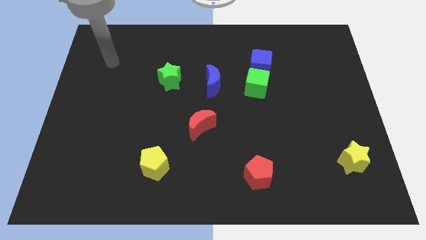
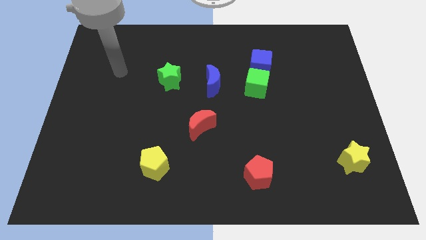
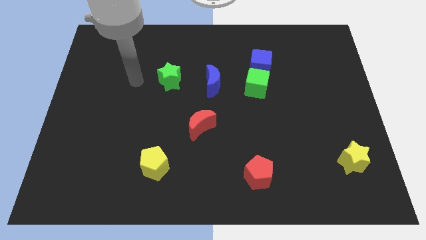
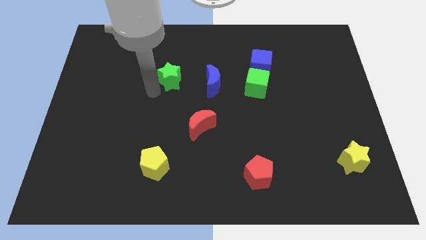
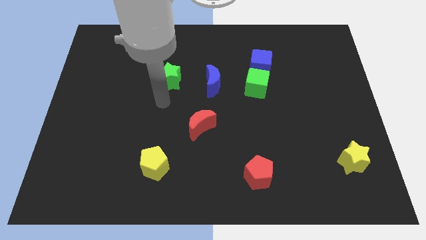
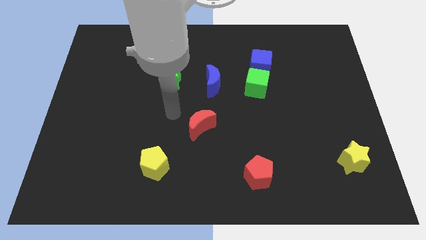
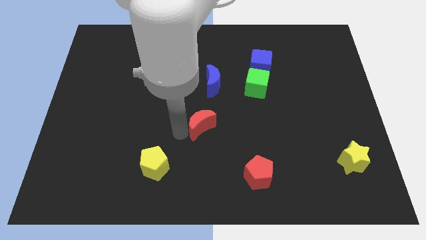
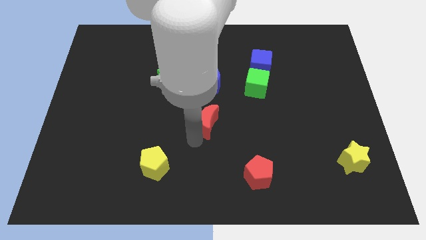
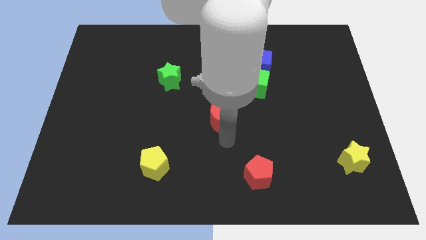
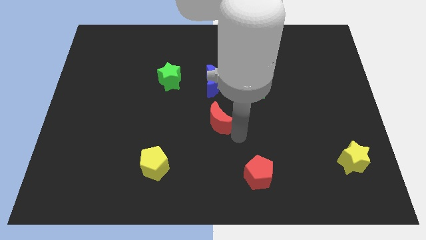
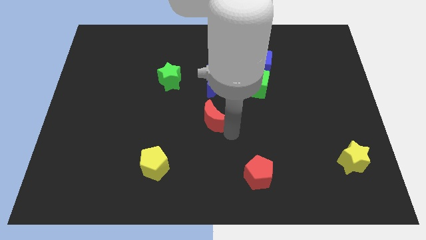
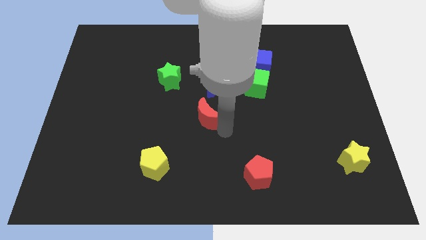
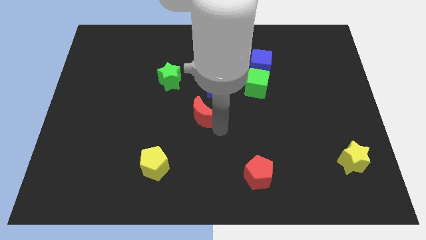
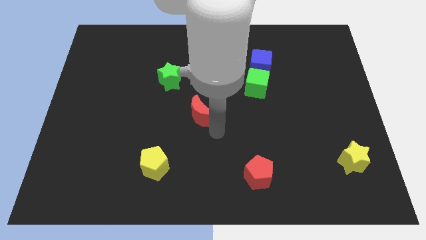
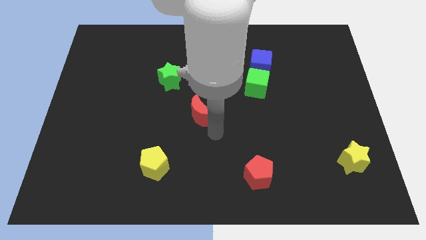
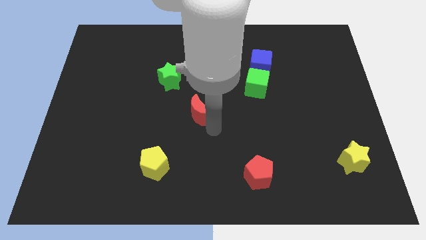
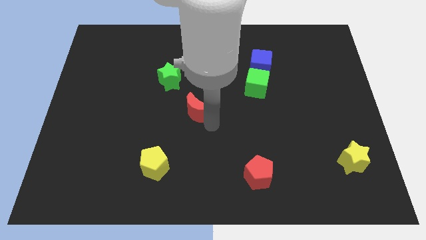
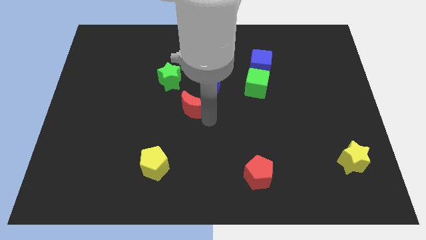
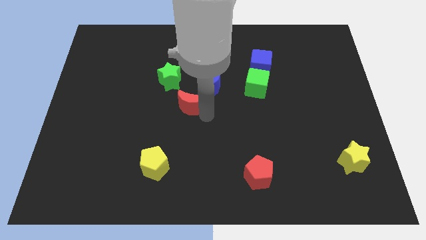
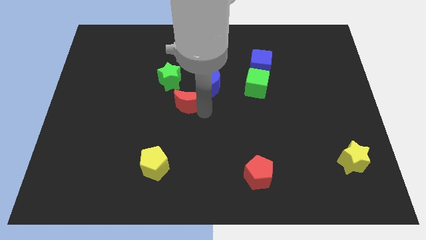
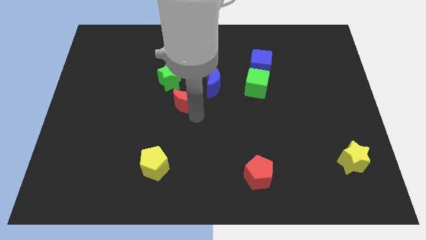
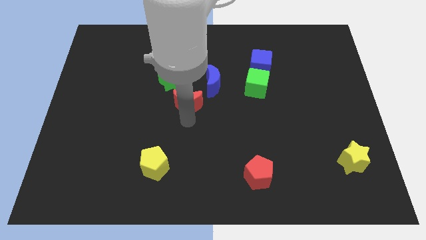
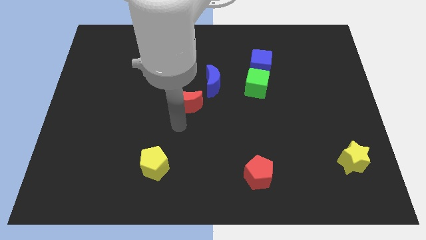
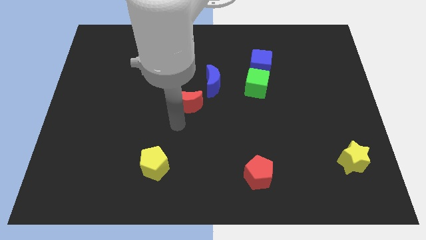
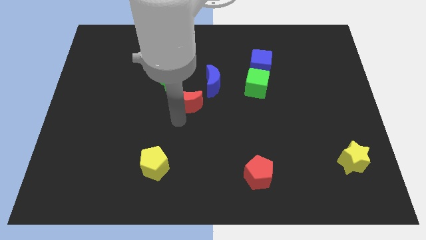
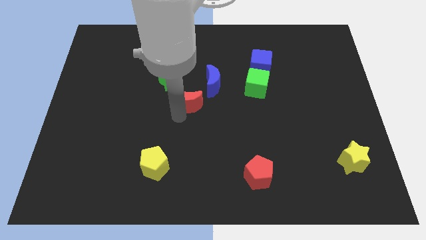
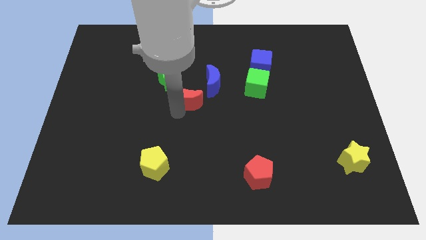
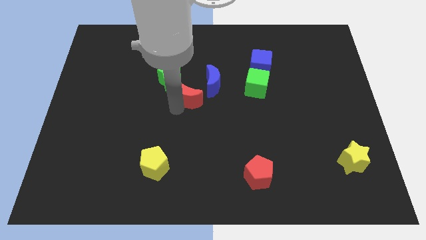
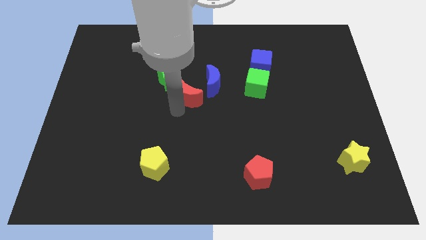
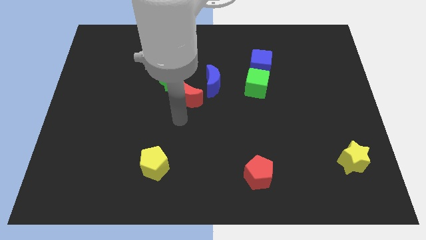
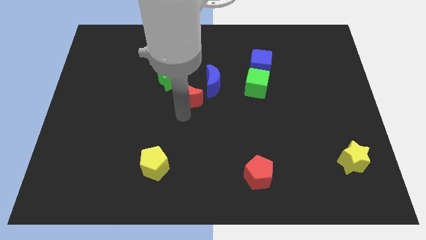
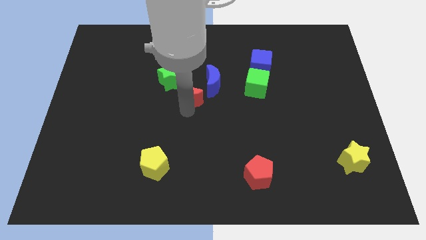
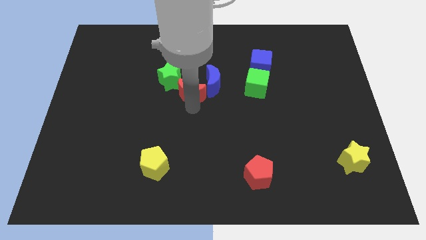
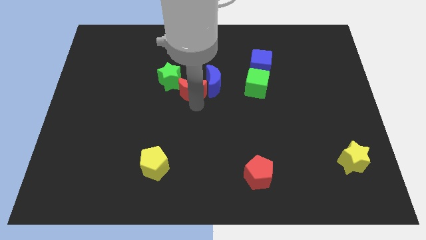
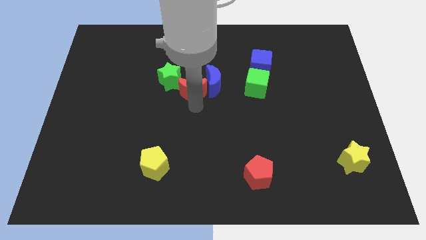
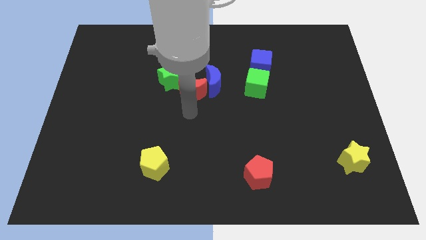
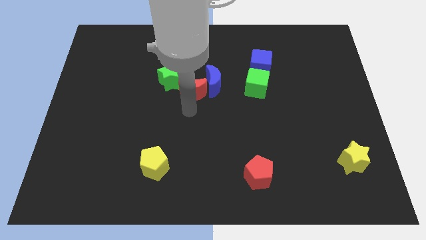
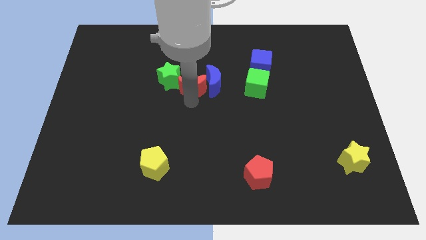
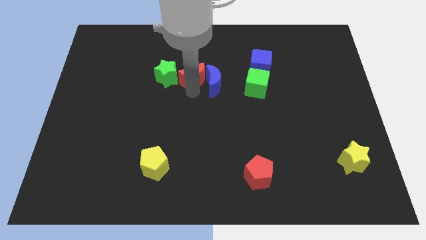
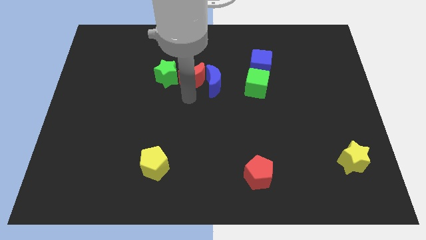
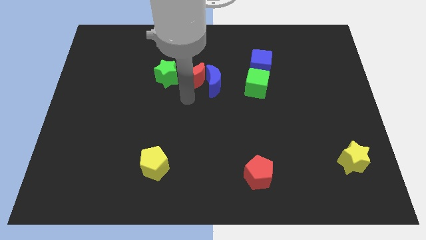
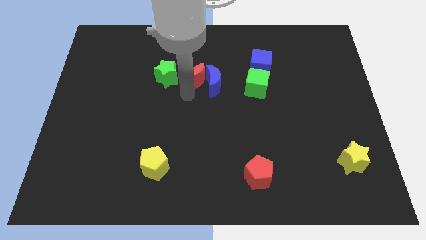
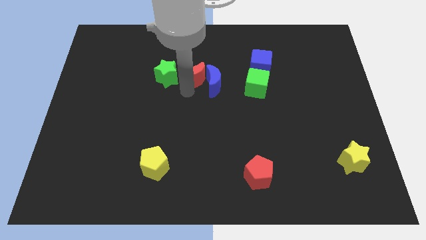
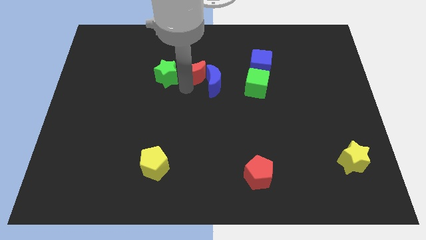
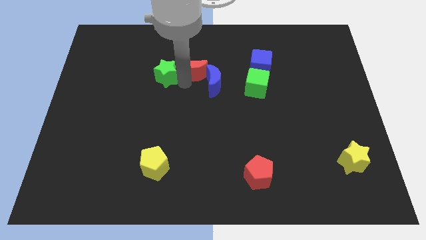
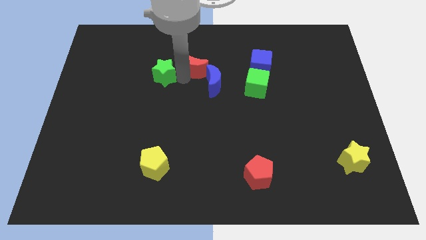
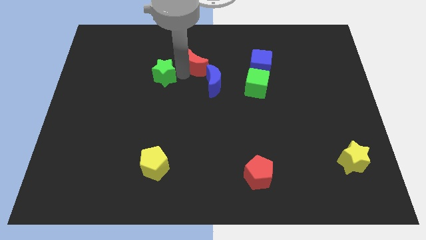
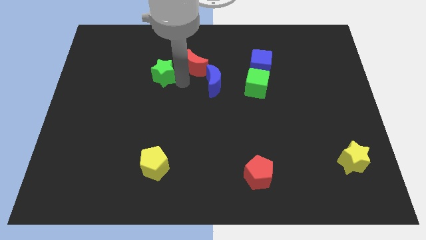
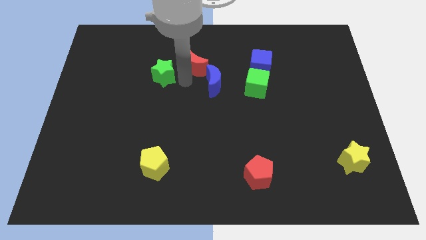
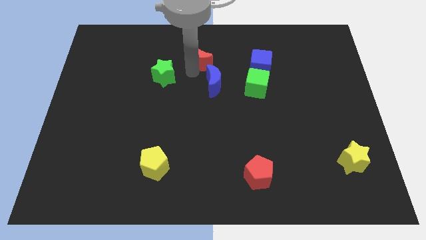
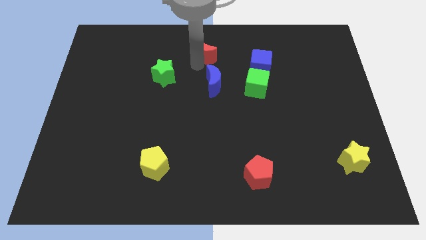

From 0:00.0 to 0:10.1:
slide the red moon to the top side

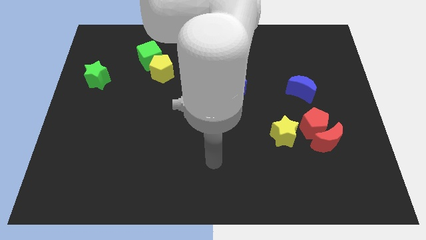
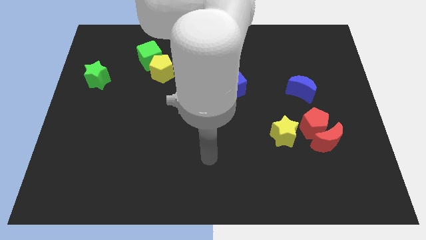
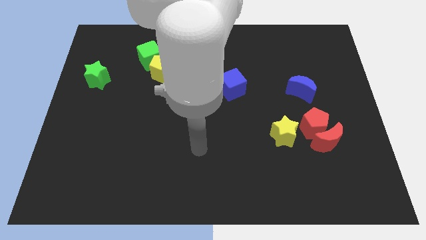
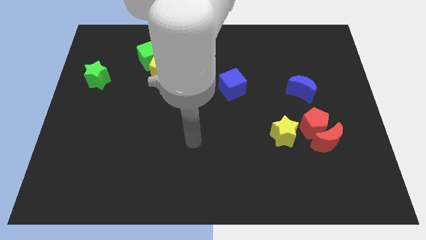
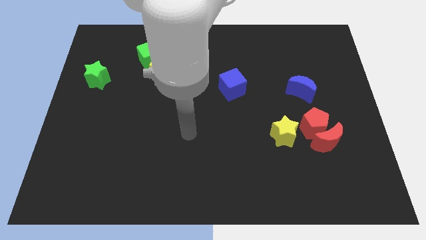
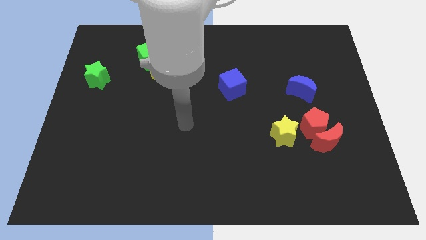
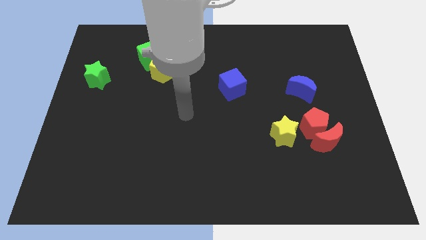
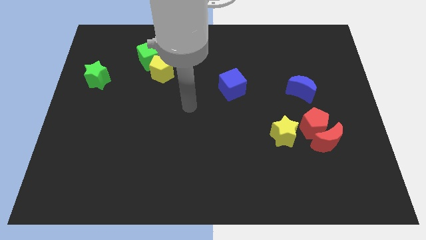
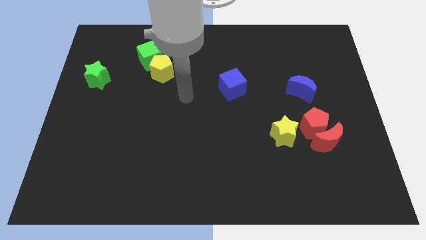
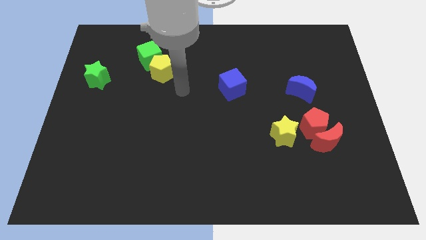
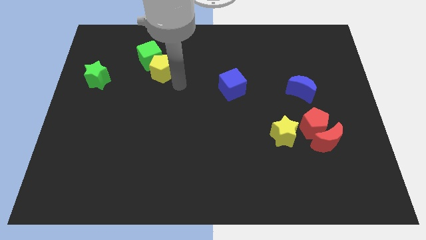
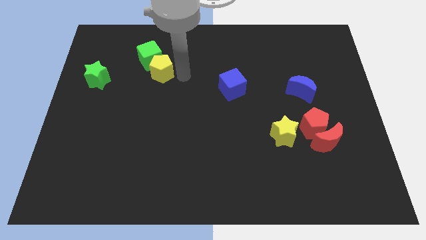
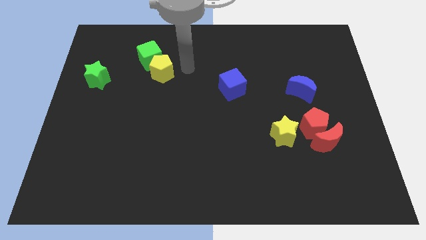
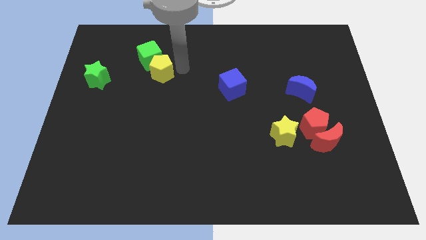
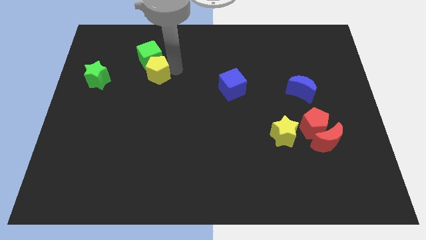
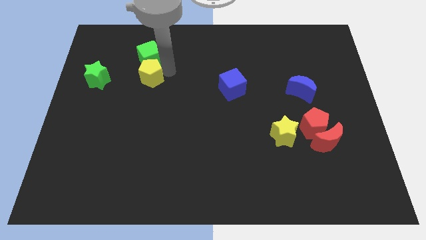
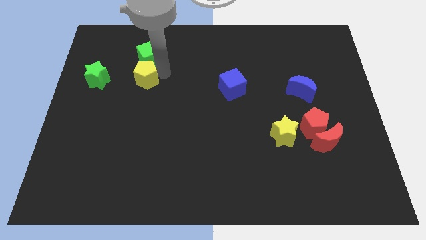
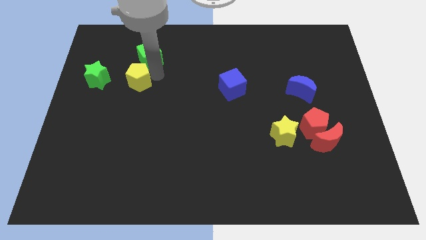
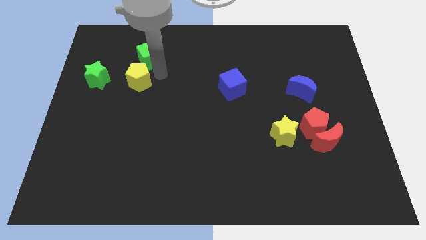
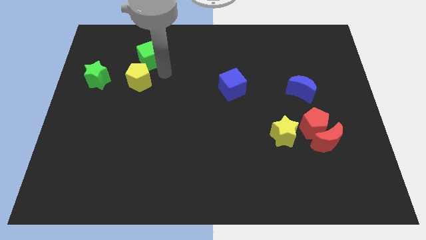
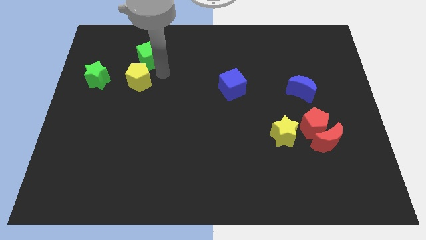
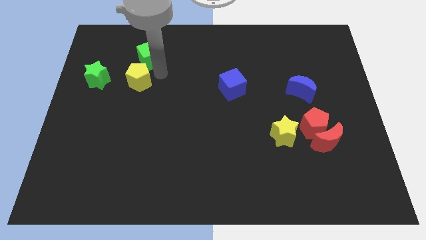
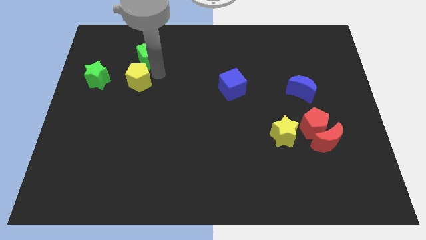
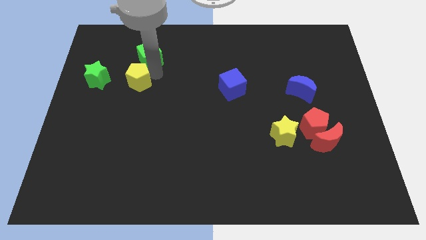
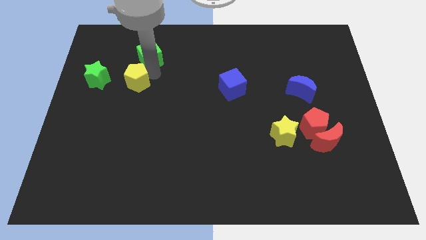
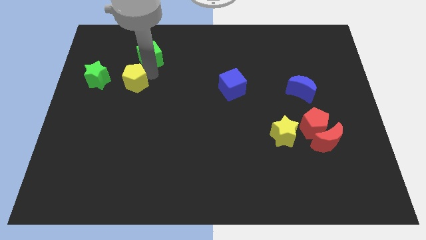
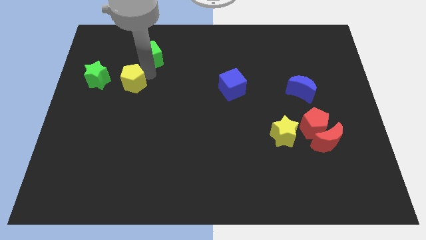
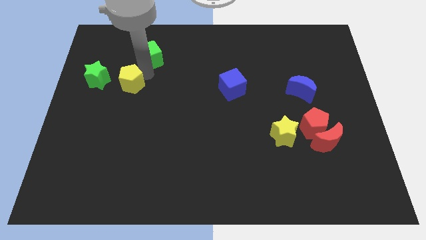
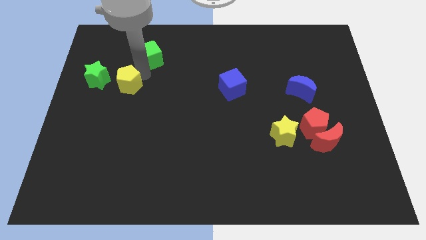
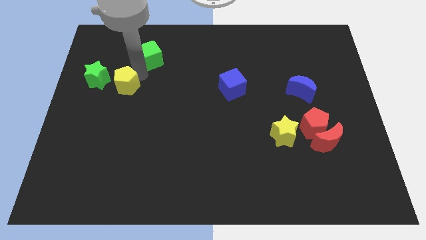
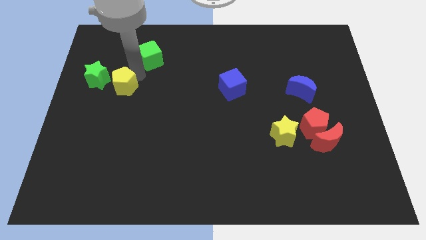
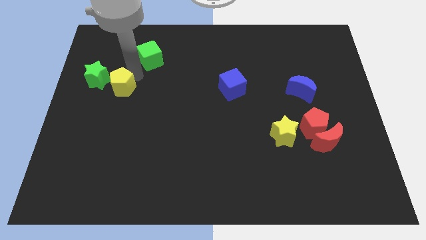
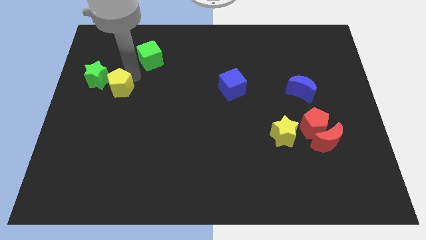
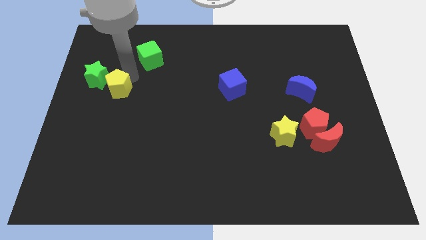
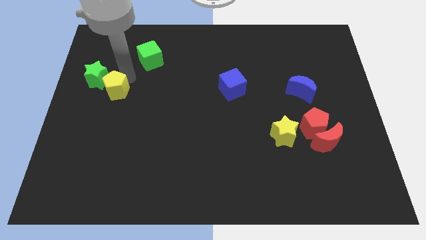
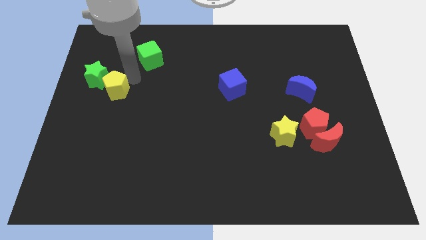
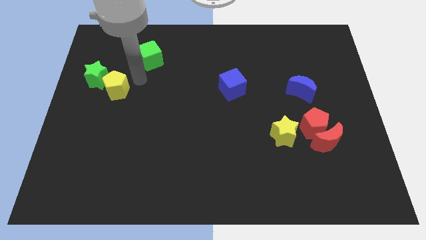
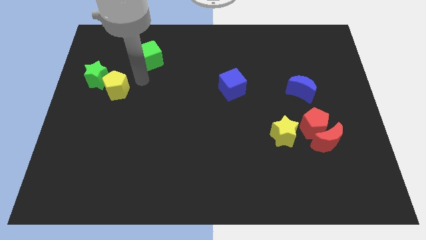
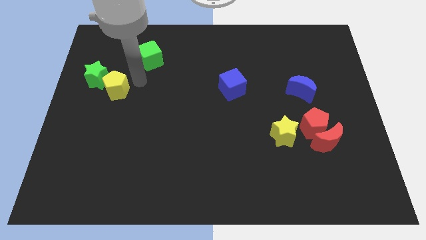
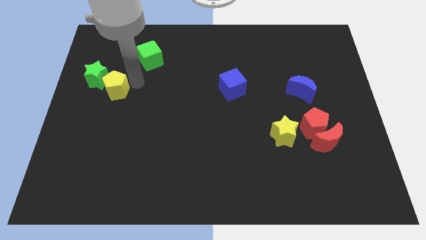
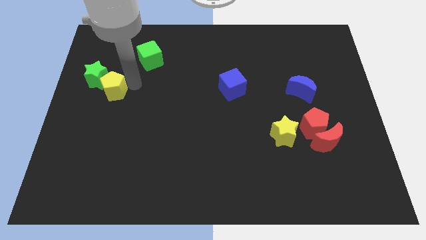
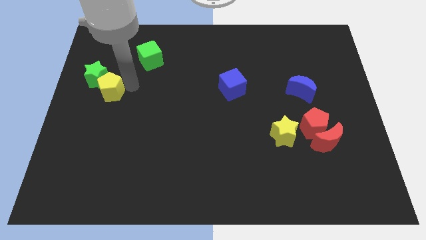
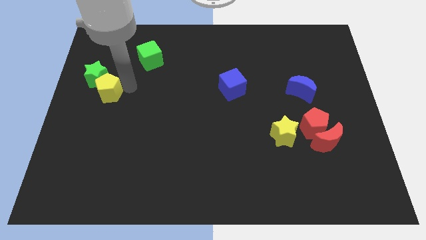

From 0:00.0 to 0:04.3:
push the yellow pentagon to the left side of the board
